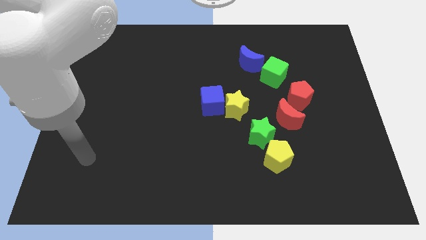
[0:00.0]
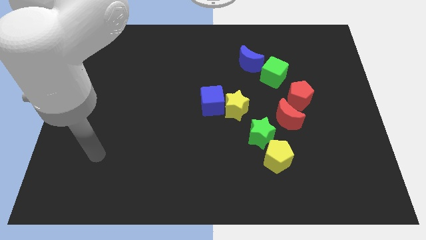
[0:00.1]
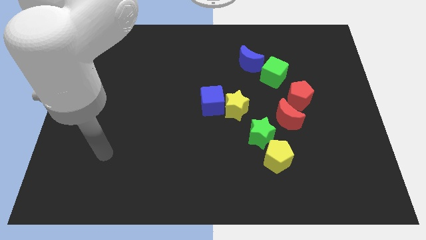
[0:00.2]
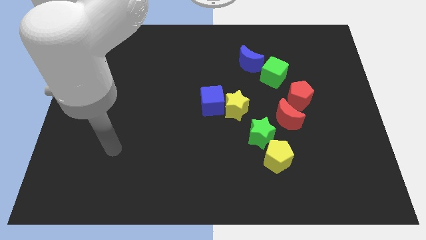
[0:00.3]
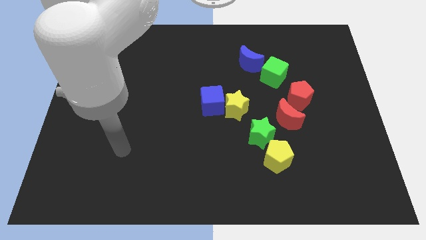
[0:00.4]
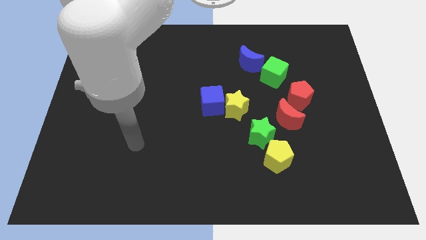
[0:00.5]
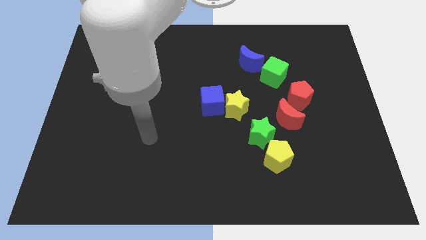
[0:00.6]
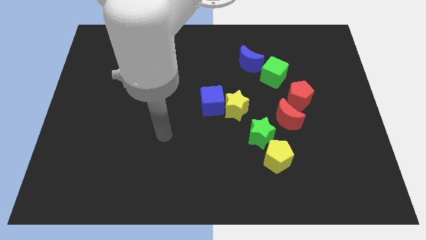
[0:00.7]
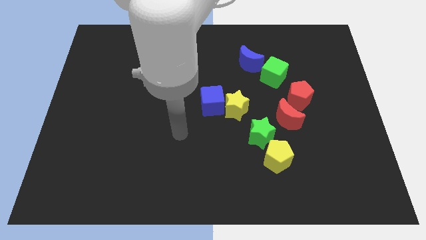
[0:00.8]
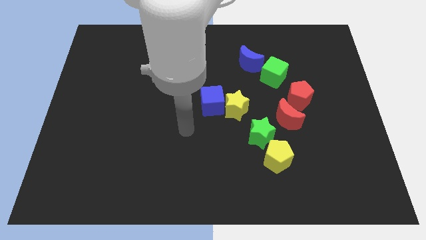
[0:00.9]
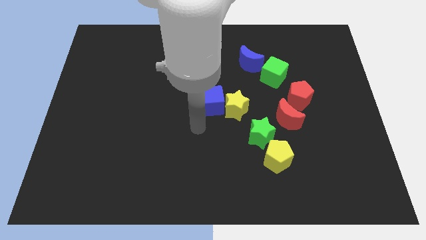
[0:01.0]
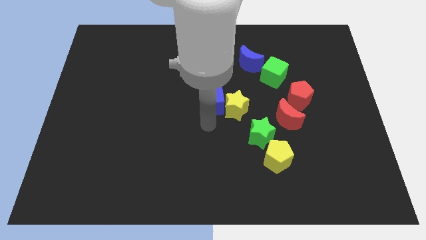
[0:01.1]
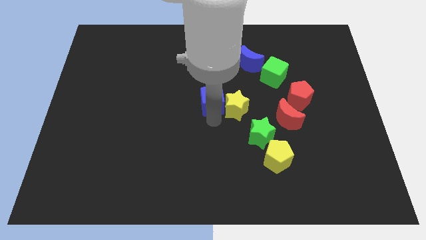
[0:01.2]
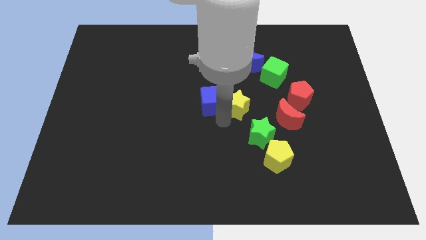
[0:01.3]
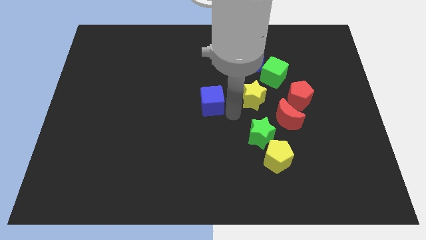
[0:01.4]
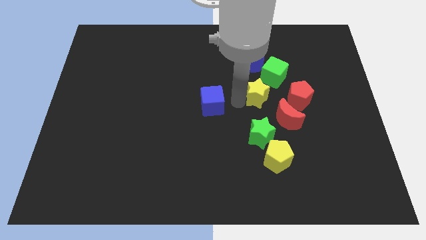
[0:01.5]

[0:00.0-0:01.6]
separate the blue cube from the yellow star

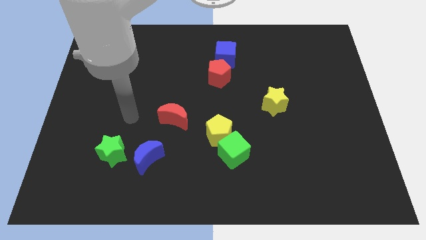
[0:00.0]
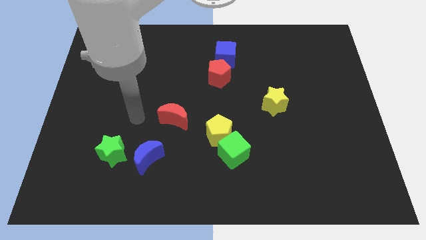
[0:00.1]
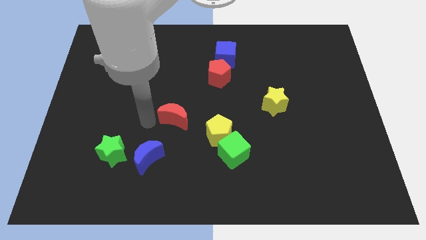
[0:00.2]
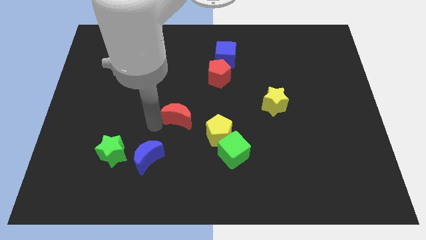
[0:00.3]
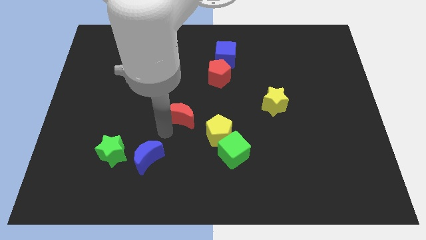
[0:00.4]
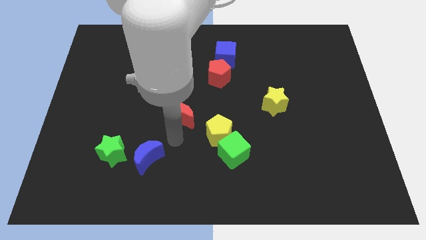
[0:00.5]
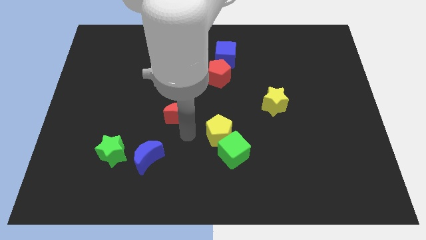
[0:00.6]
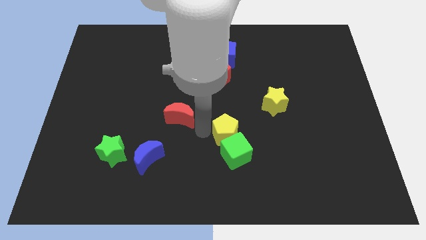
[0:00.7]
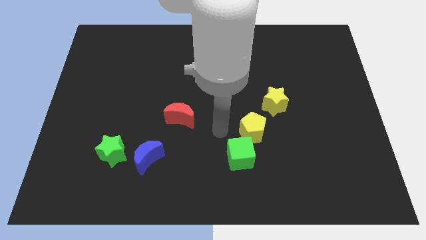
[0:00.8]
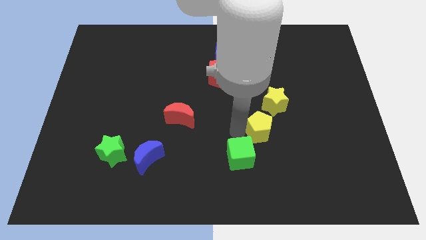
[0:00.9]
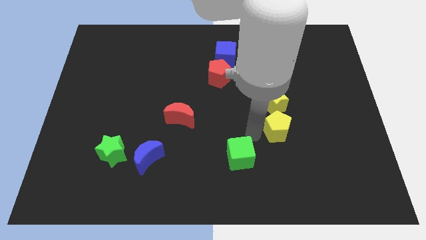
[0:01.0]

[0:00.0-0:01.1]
move the green cube away from the yellow pentagon

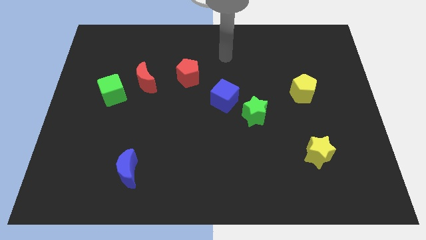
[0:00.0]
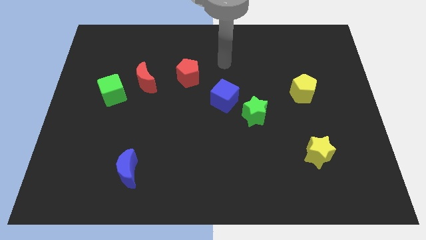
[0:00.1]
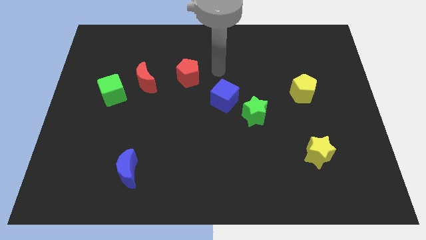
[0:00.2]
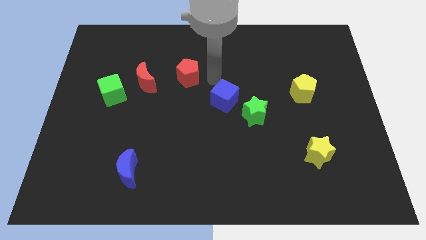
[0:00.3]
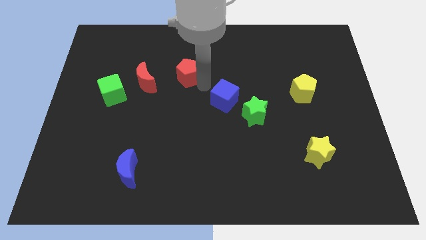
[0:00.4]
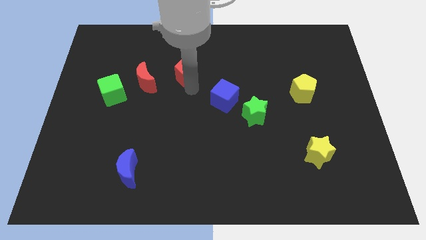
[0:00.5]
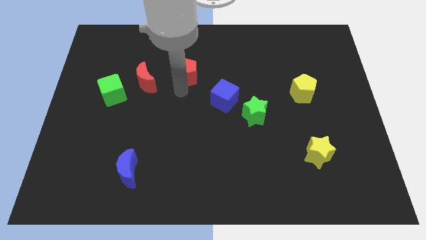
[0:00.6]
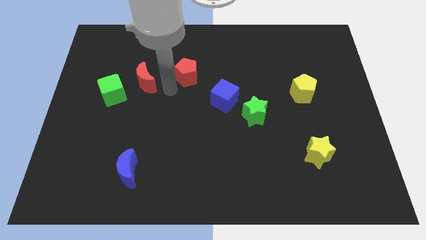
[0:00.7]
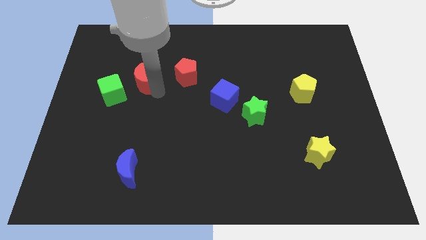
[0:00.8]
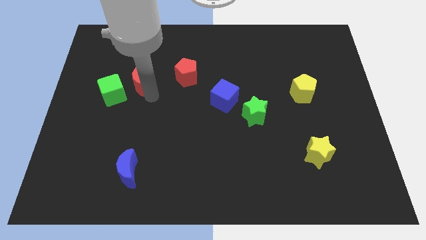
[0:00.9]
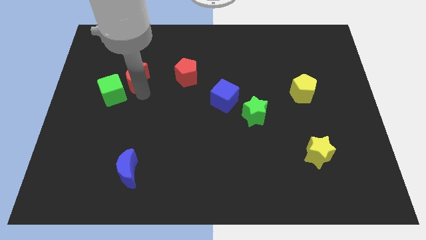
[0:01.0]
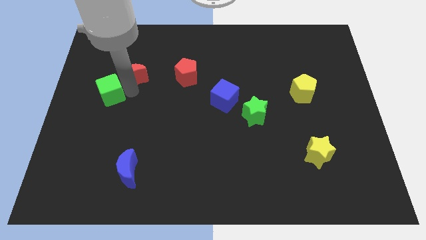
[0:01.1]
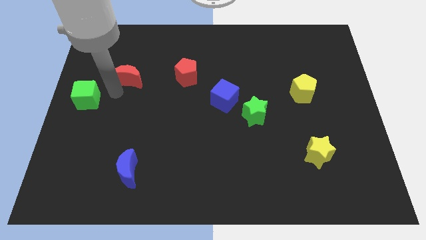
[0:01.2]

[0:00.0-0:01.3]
pull the red moon apart from the green cube

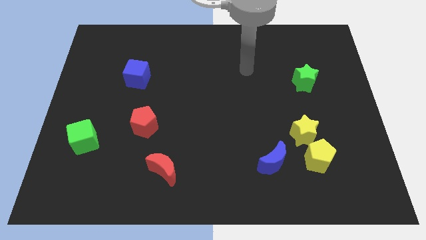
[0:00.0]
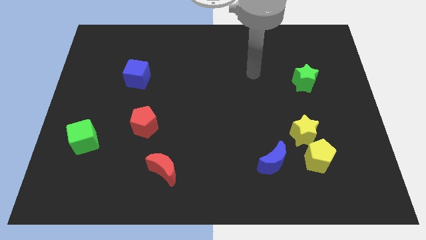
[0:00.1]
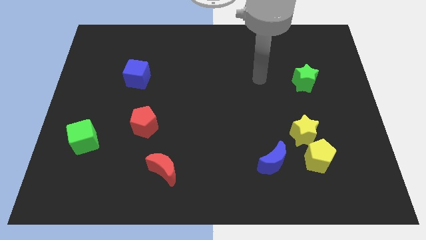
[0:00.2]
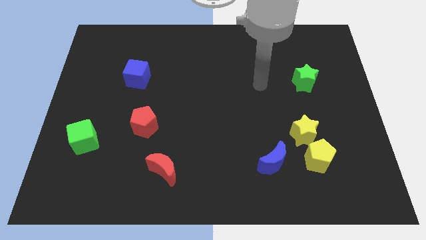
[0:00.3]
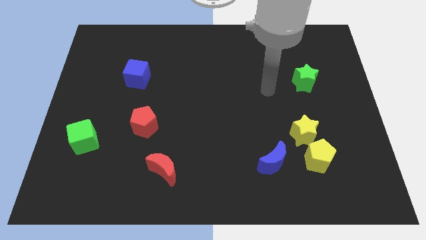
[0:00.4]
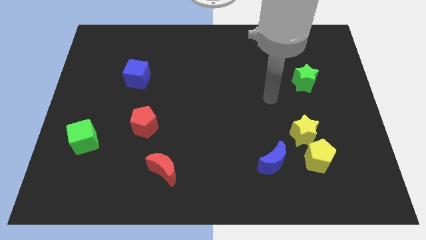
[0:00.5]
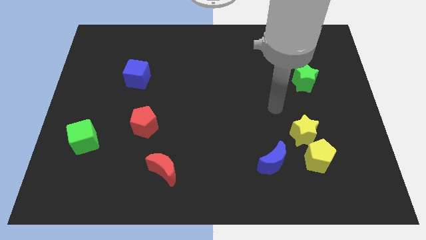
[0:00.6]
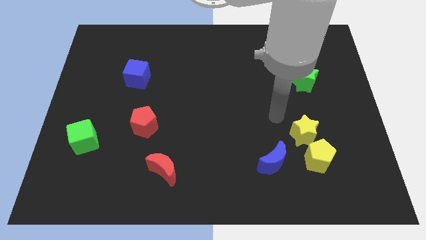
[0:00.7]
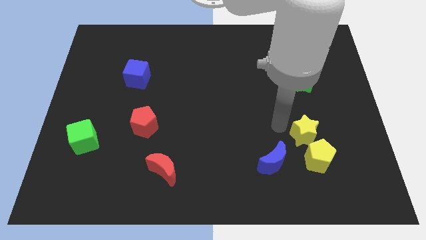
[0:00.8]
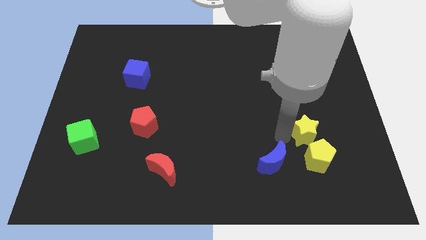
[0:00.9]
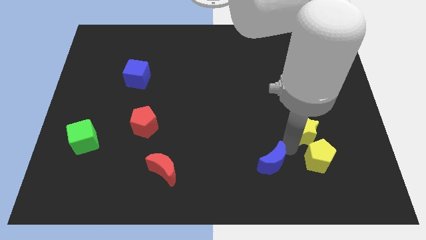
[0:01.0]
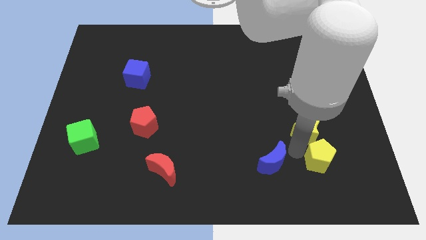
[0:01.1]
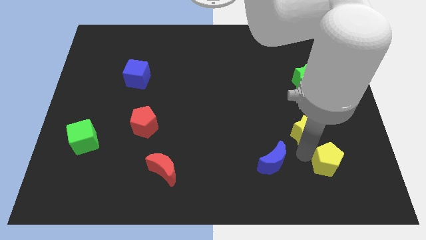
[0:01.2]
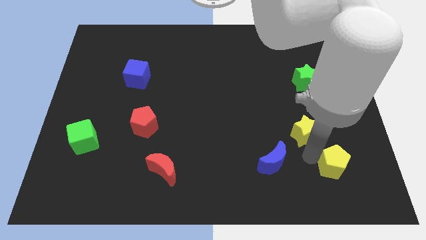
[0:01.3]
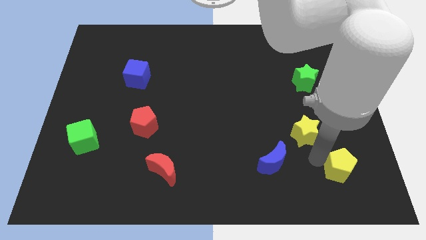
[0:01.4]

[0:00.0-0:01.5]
pull the yellow pentagon apart from the yellow star and blue moon

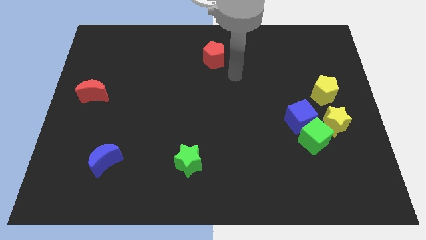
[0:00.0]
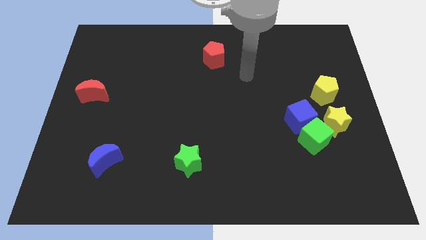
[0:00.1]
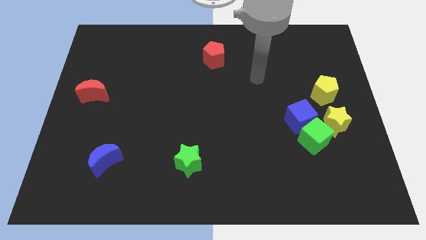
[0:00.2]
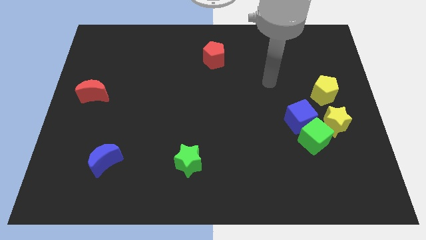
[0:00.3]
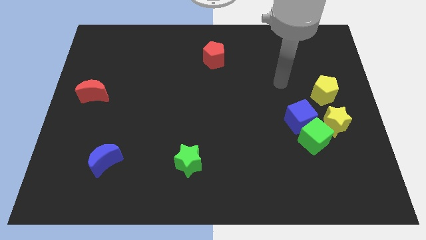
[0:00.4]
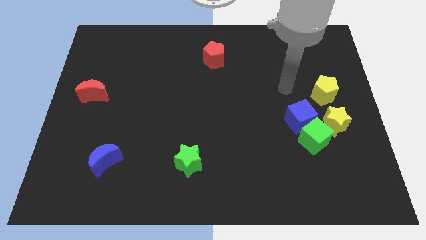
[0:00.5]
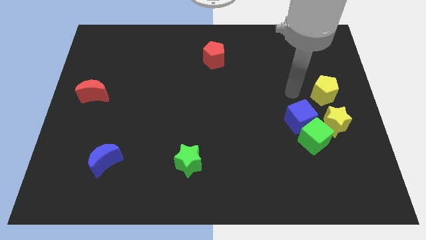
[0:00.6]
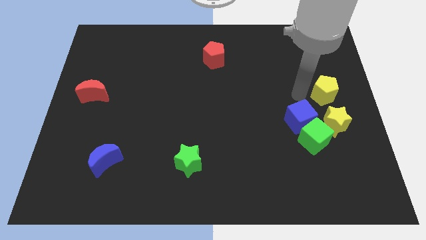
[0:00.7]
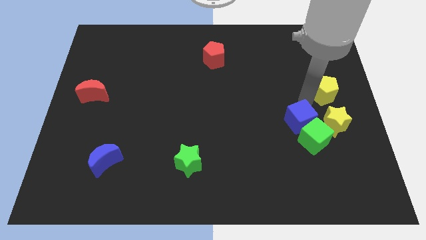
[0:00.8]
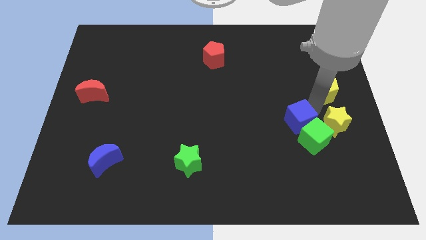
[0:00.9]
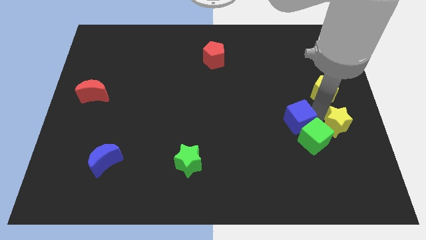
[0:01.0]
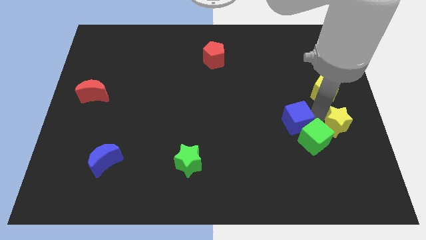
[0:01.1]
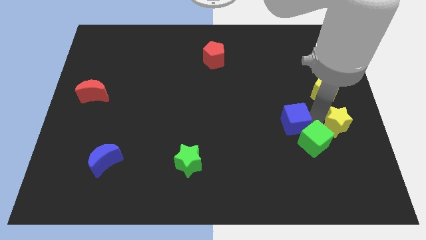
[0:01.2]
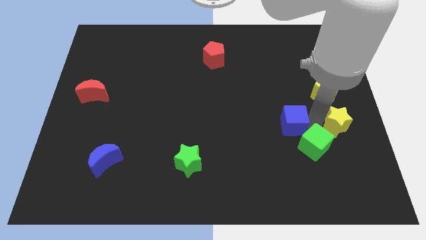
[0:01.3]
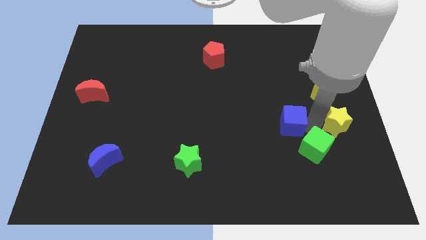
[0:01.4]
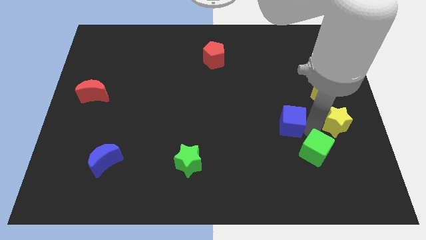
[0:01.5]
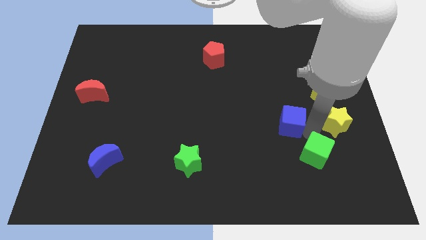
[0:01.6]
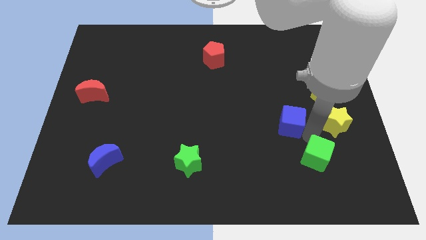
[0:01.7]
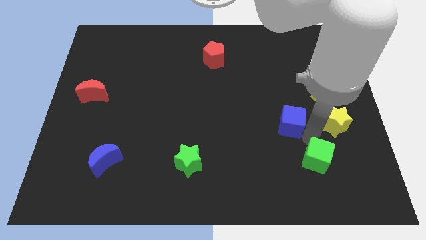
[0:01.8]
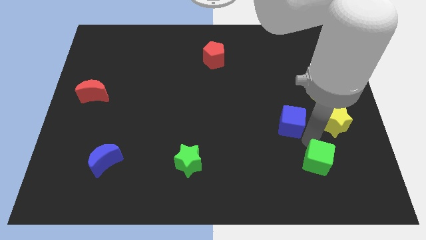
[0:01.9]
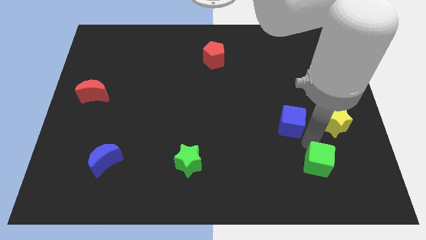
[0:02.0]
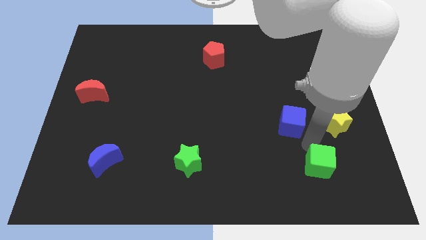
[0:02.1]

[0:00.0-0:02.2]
separate the green cube from the blue cube and yellow star

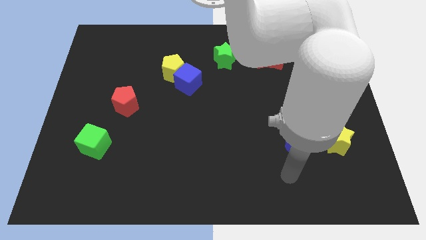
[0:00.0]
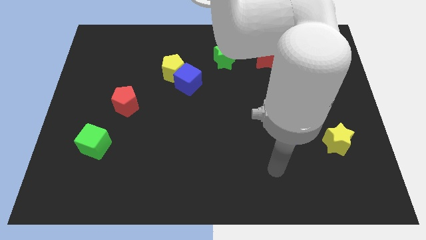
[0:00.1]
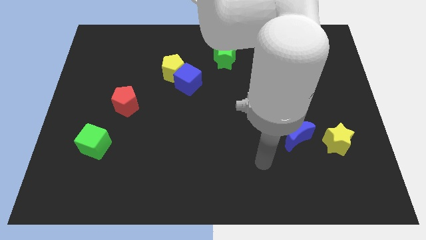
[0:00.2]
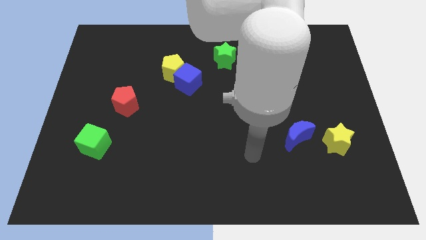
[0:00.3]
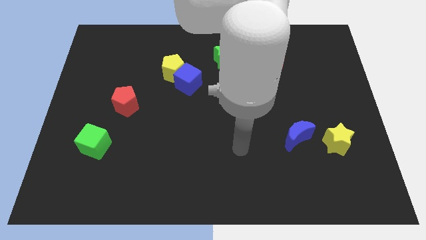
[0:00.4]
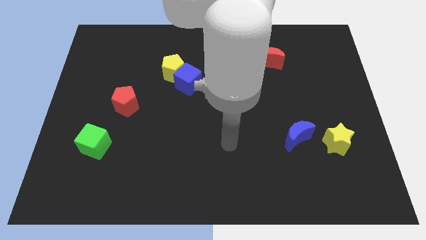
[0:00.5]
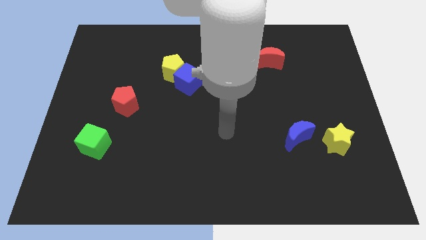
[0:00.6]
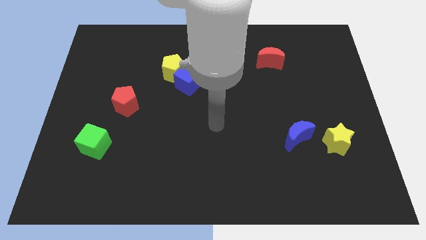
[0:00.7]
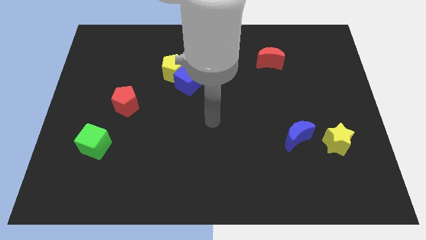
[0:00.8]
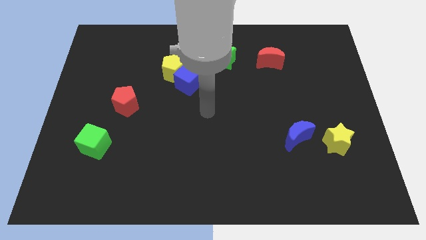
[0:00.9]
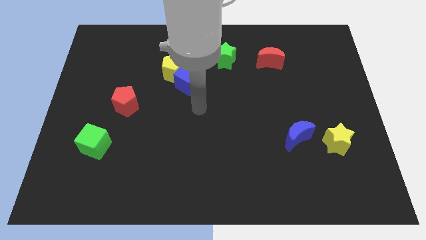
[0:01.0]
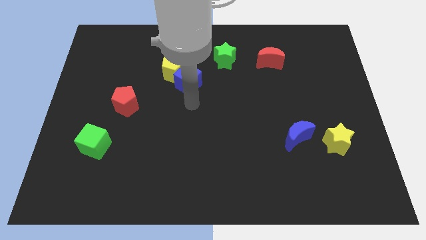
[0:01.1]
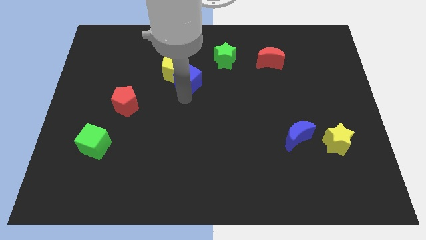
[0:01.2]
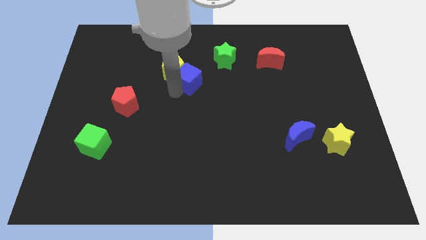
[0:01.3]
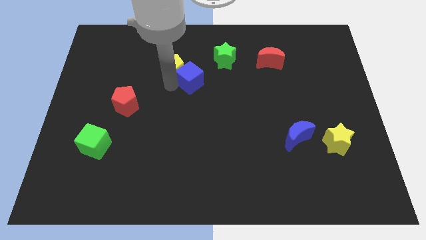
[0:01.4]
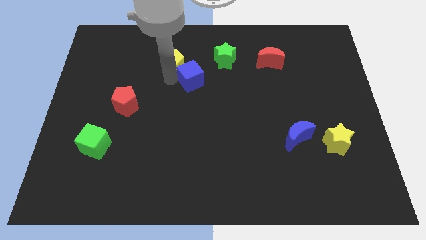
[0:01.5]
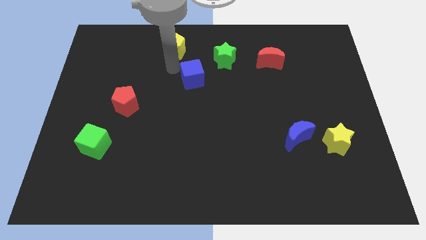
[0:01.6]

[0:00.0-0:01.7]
separate the blue cube from the yellow pentagon
